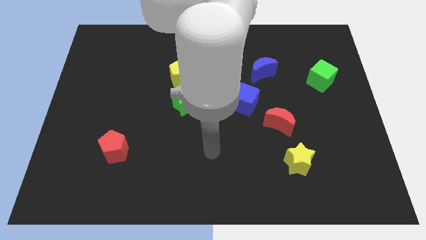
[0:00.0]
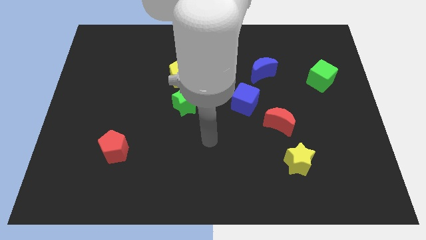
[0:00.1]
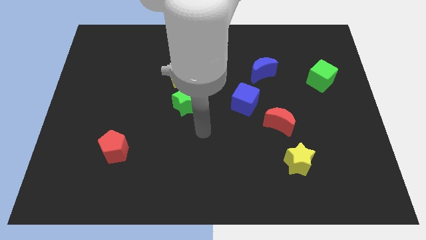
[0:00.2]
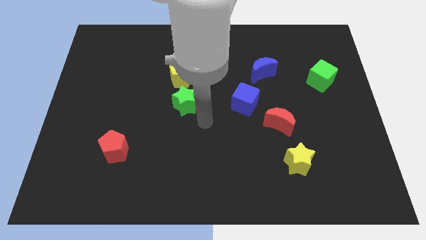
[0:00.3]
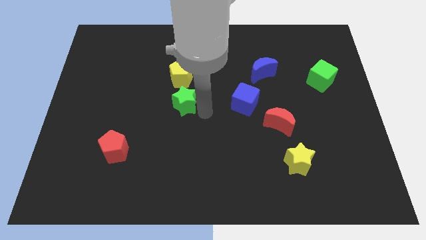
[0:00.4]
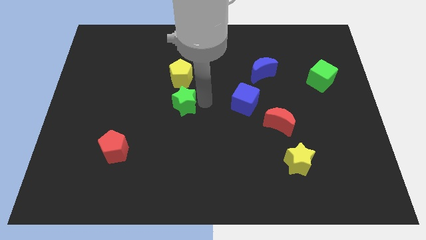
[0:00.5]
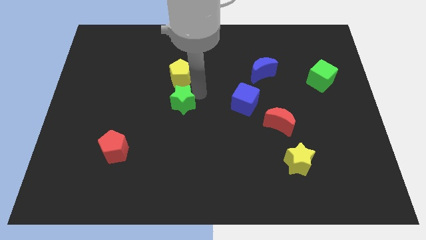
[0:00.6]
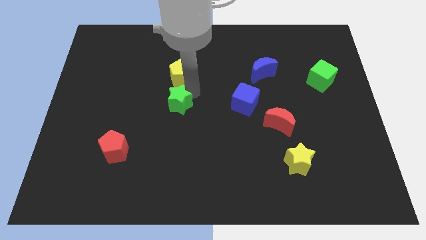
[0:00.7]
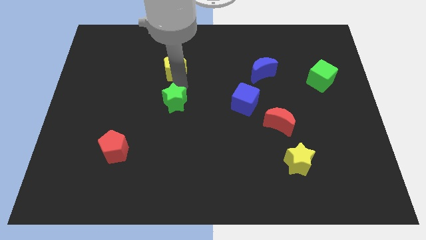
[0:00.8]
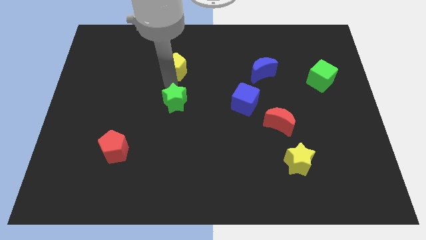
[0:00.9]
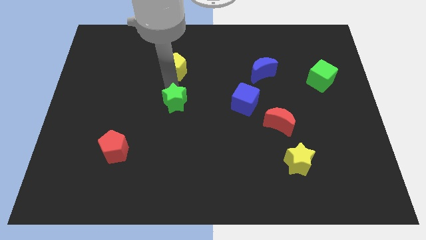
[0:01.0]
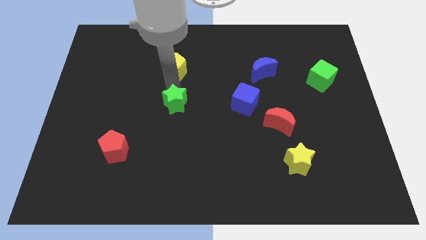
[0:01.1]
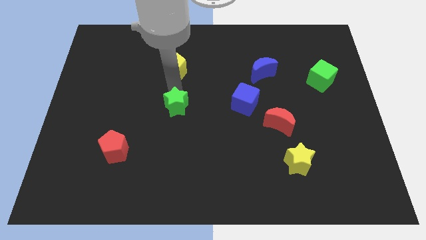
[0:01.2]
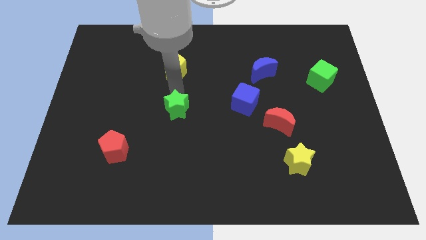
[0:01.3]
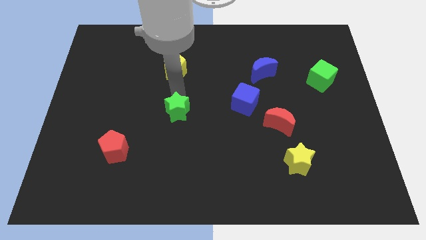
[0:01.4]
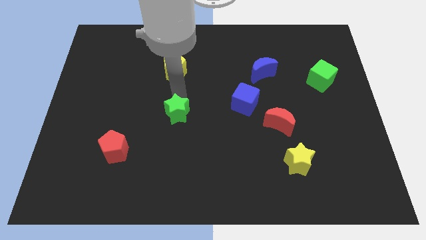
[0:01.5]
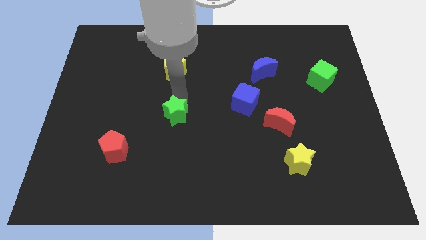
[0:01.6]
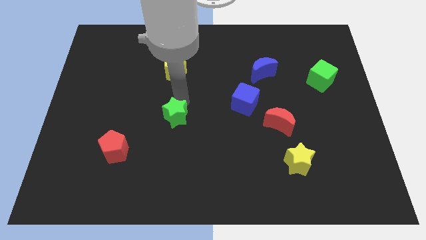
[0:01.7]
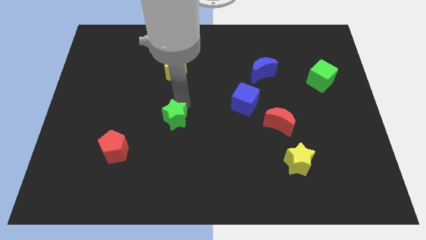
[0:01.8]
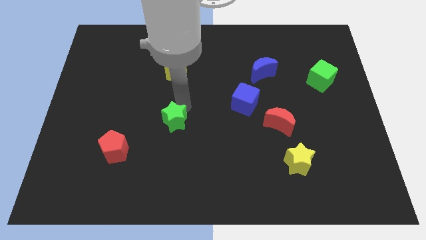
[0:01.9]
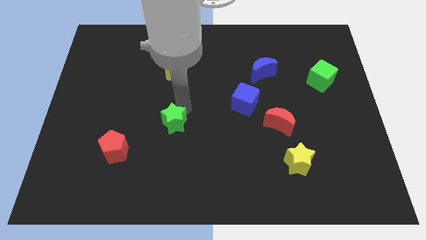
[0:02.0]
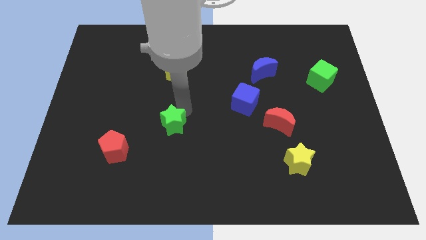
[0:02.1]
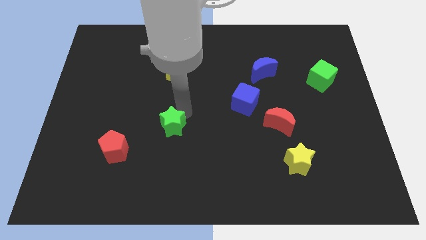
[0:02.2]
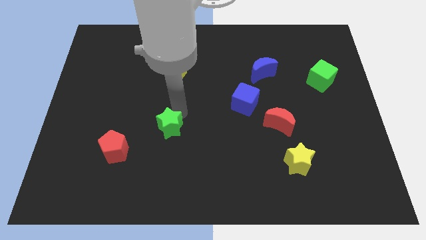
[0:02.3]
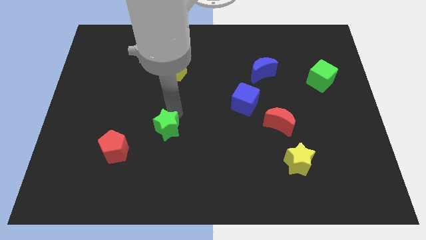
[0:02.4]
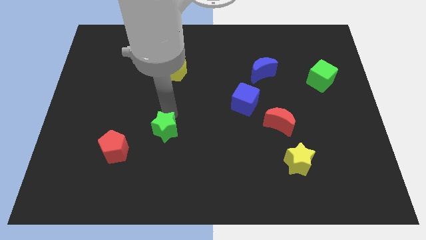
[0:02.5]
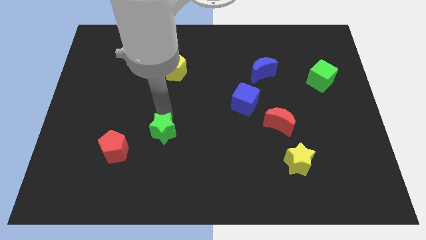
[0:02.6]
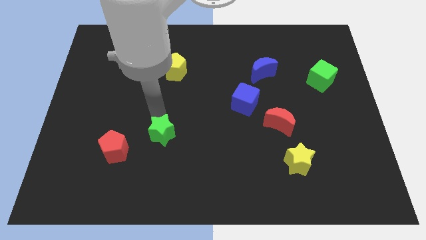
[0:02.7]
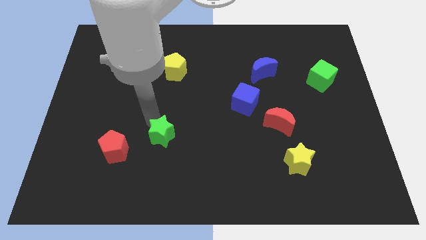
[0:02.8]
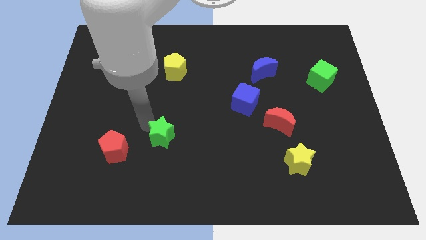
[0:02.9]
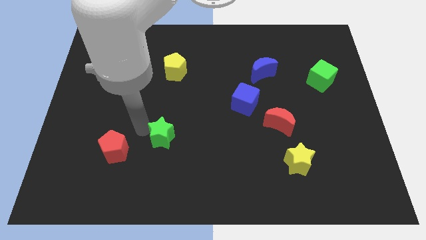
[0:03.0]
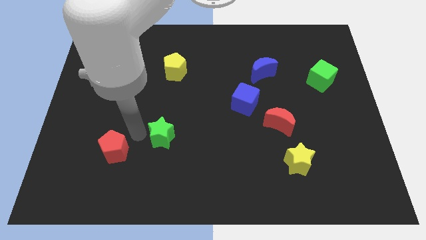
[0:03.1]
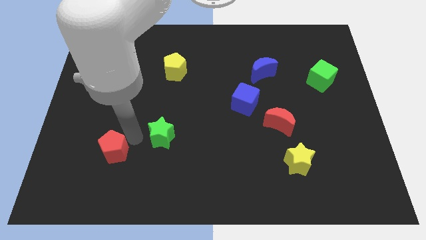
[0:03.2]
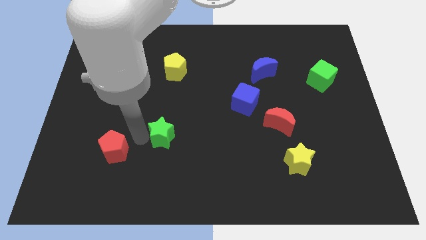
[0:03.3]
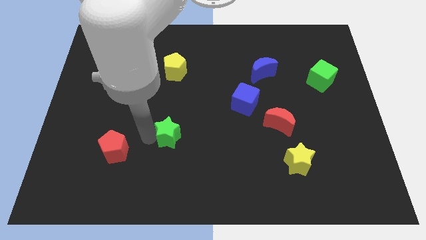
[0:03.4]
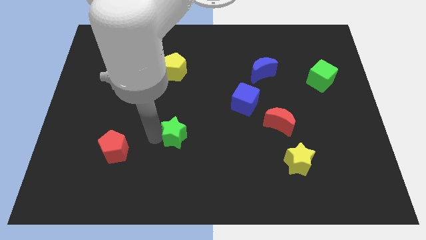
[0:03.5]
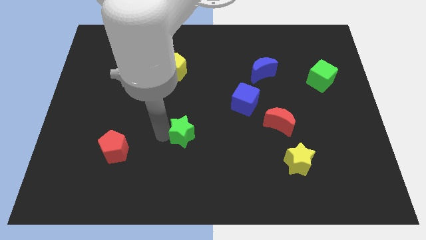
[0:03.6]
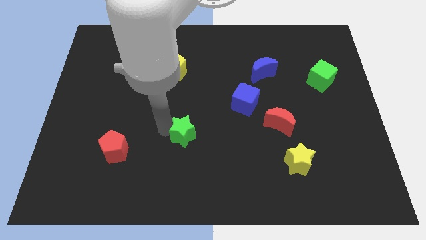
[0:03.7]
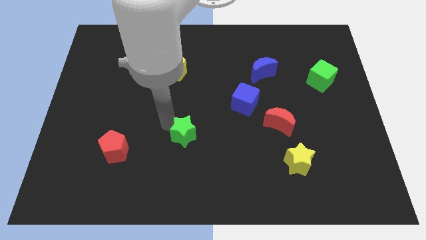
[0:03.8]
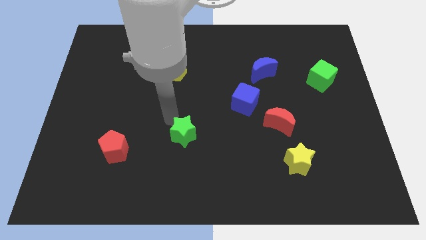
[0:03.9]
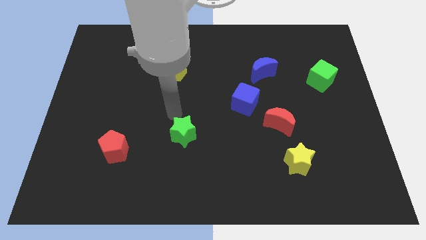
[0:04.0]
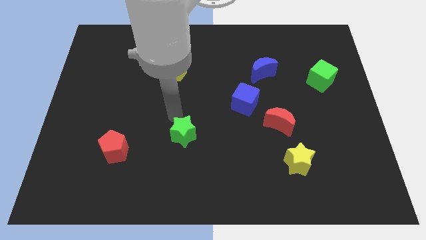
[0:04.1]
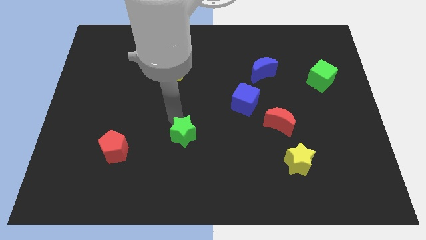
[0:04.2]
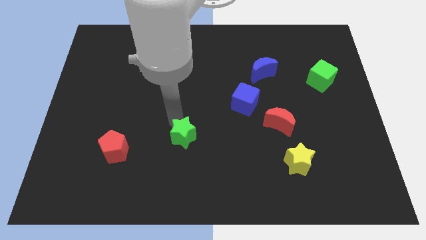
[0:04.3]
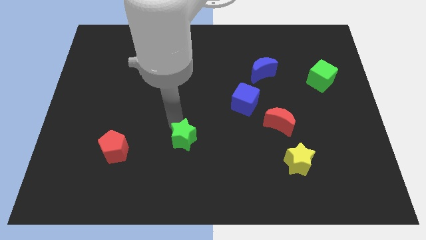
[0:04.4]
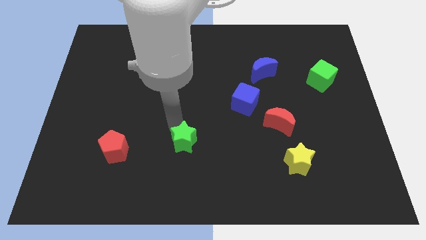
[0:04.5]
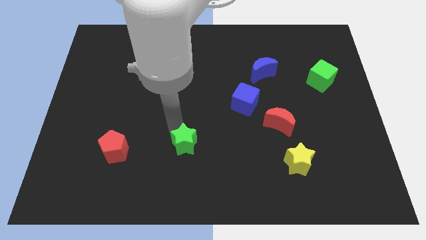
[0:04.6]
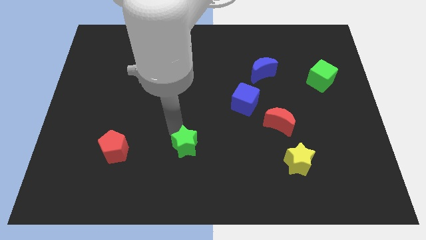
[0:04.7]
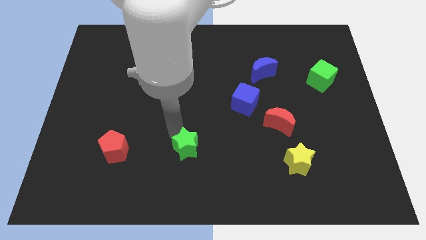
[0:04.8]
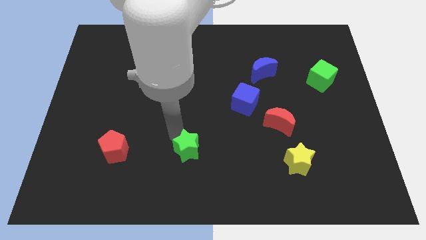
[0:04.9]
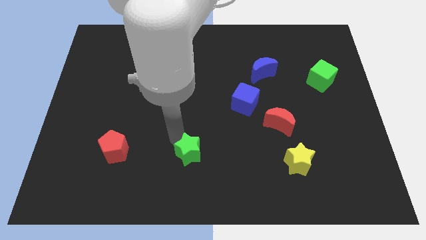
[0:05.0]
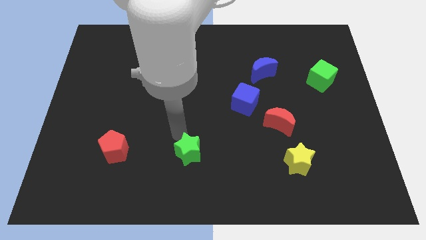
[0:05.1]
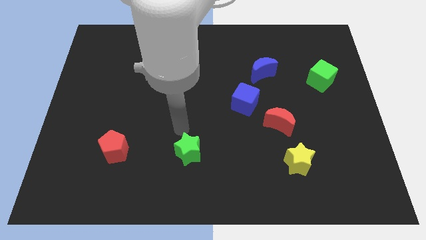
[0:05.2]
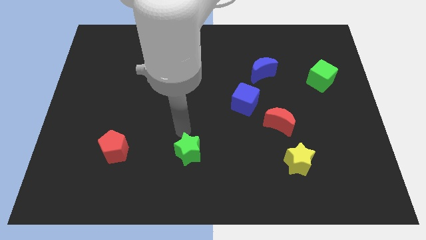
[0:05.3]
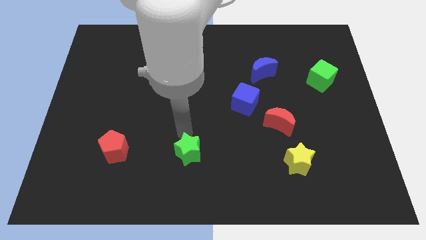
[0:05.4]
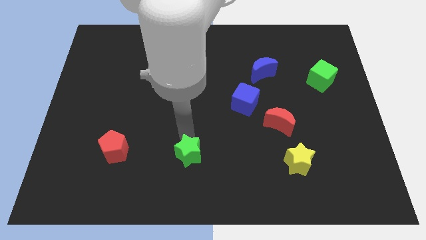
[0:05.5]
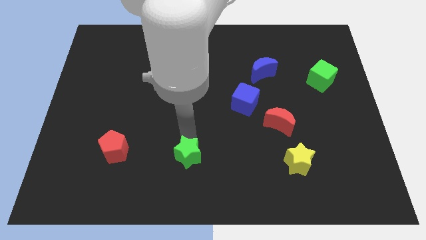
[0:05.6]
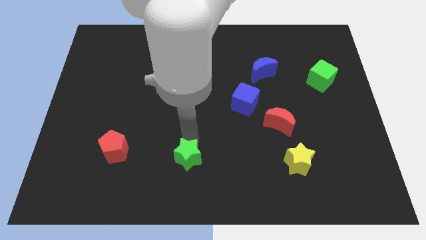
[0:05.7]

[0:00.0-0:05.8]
put the green star to the bottom side

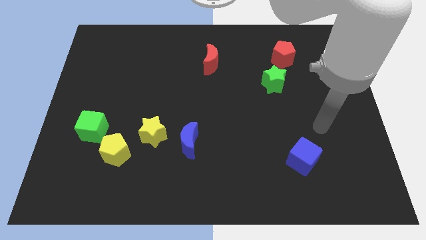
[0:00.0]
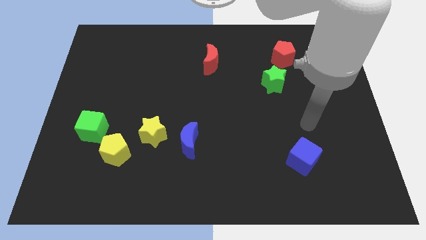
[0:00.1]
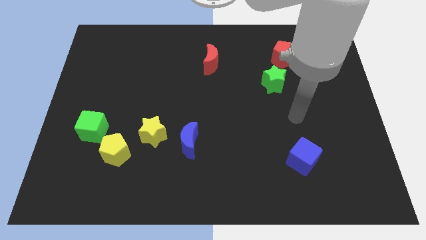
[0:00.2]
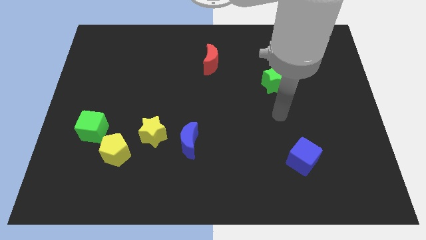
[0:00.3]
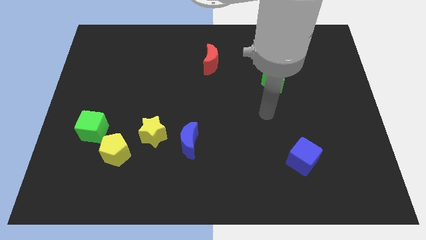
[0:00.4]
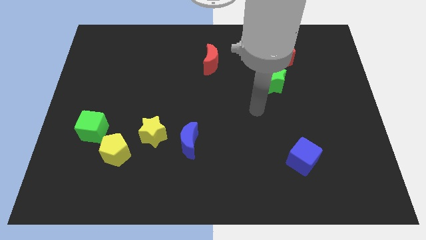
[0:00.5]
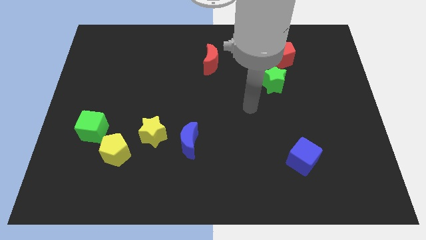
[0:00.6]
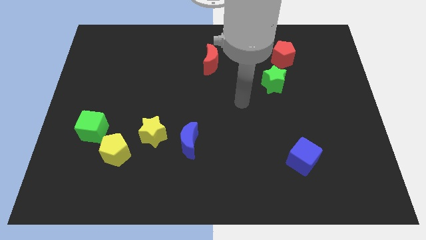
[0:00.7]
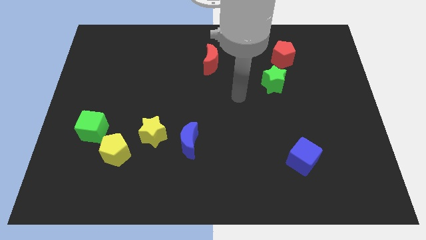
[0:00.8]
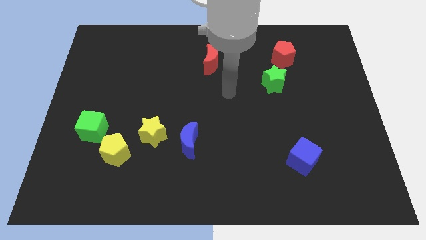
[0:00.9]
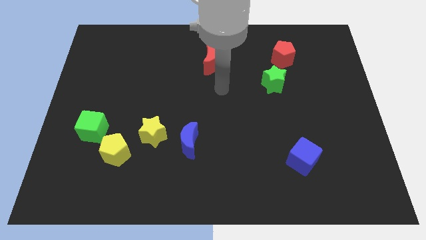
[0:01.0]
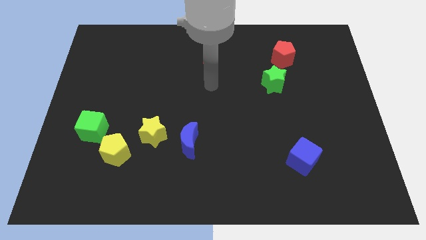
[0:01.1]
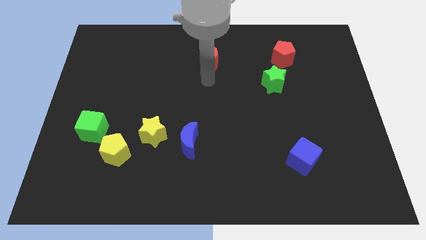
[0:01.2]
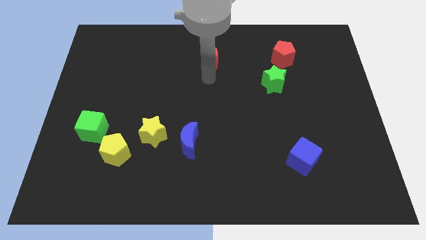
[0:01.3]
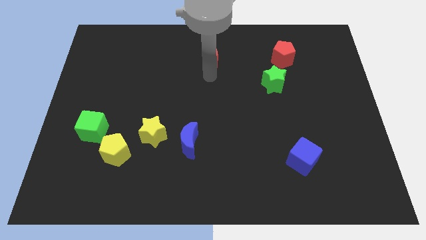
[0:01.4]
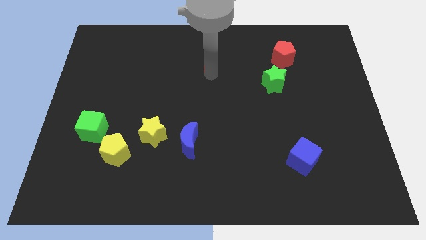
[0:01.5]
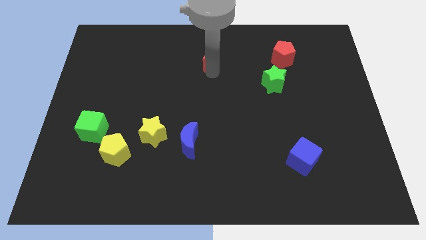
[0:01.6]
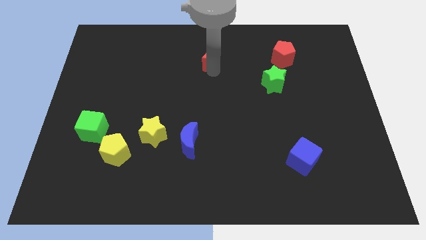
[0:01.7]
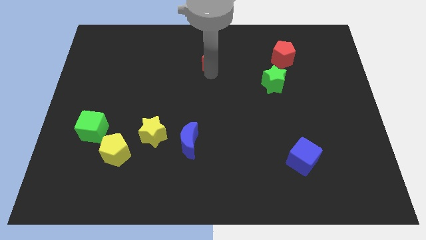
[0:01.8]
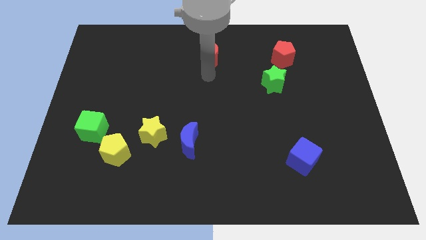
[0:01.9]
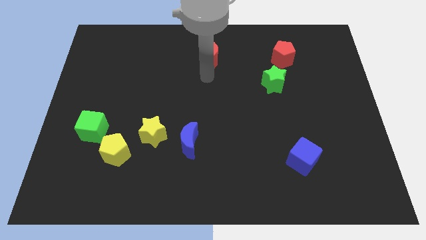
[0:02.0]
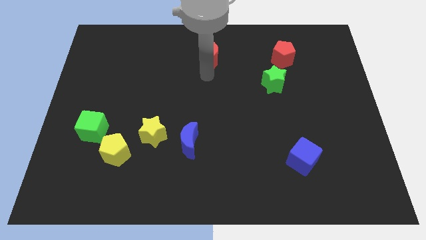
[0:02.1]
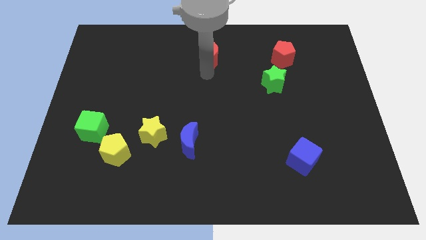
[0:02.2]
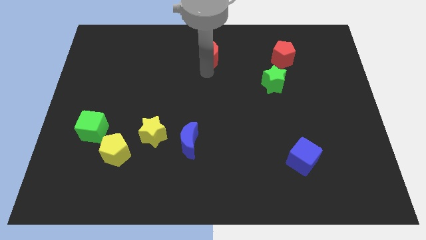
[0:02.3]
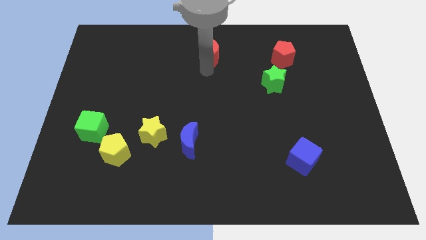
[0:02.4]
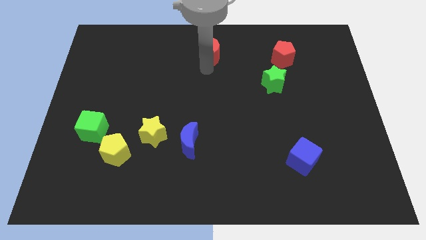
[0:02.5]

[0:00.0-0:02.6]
slide the red moon to the top
